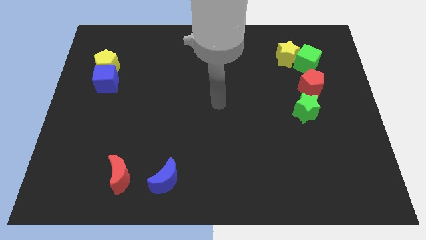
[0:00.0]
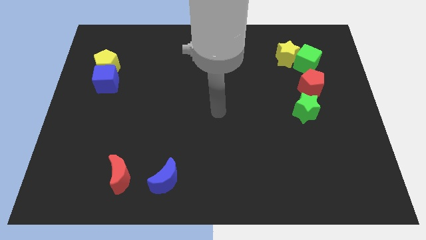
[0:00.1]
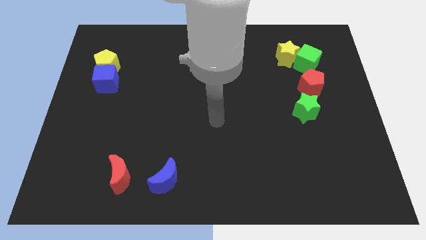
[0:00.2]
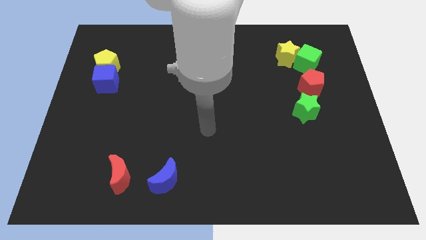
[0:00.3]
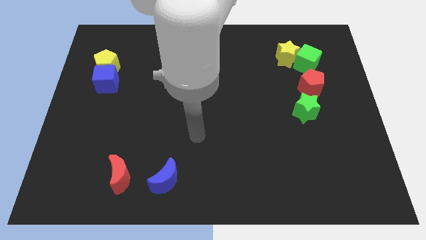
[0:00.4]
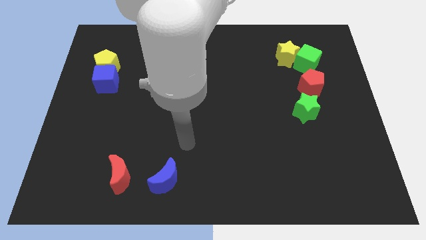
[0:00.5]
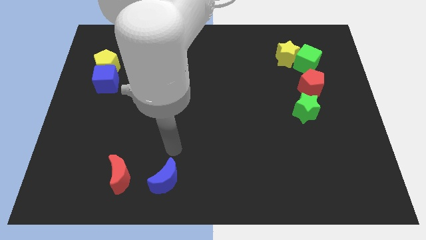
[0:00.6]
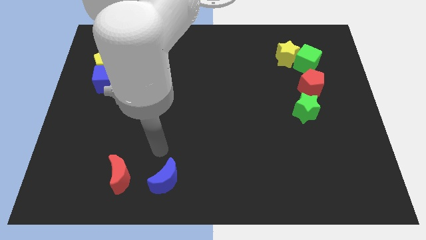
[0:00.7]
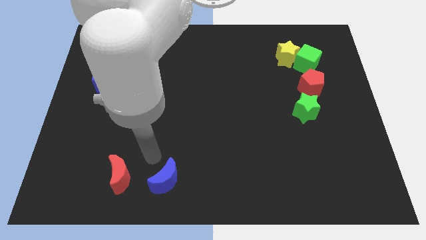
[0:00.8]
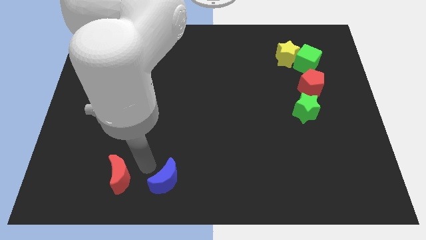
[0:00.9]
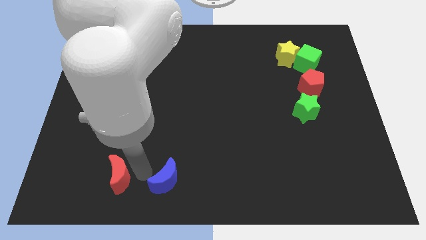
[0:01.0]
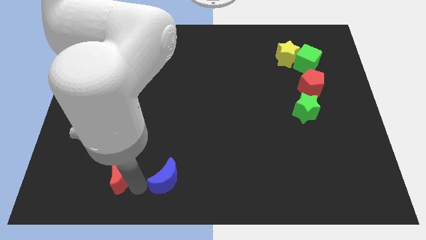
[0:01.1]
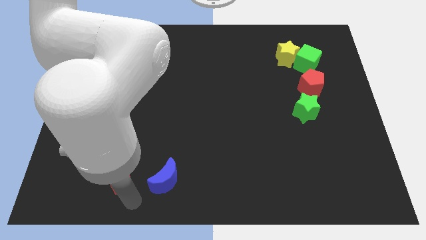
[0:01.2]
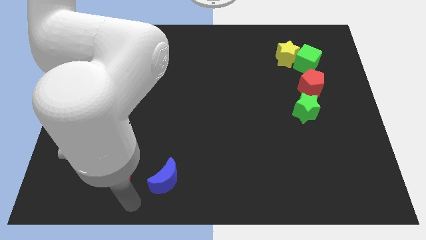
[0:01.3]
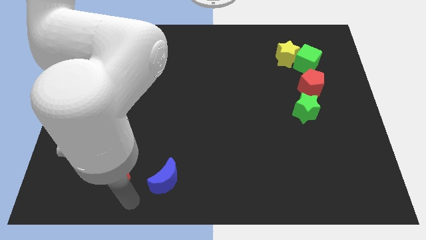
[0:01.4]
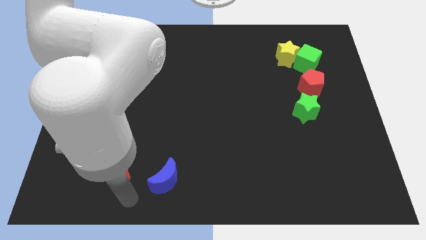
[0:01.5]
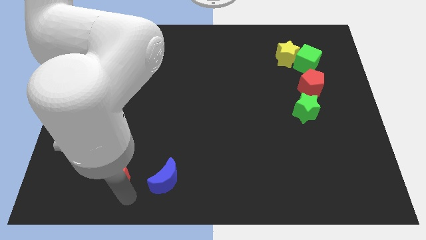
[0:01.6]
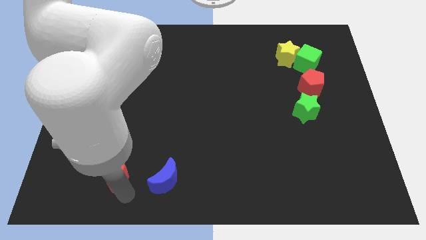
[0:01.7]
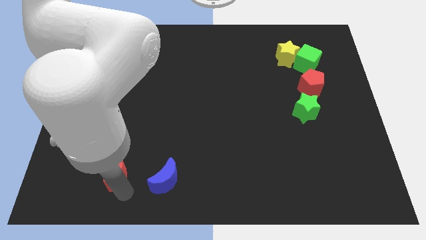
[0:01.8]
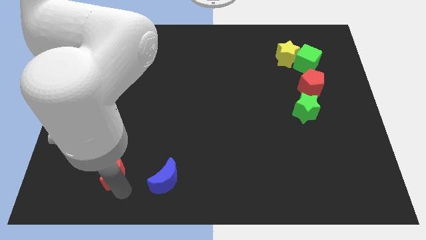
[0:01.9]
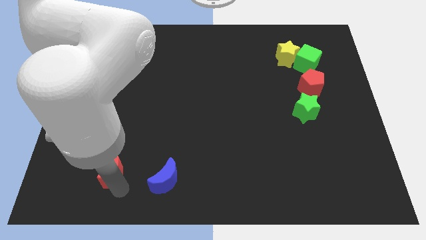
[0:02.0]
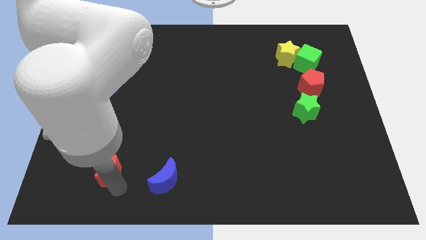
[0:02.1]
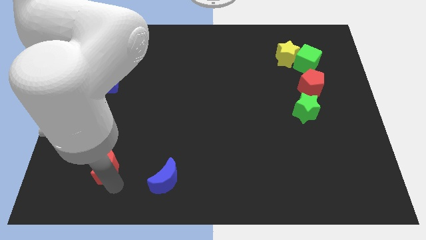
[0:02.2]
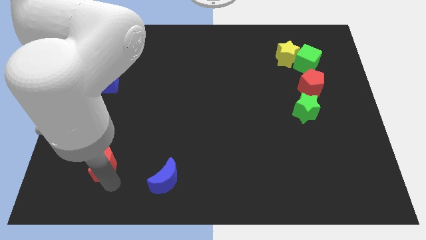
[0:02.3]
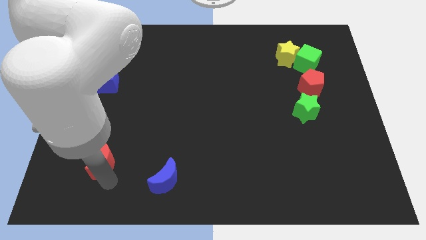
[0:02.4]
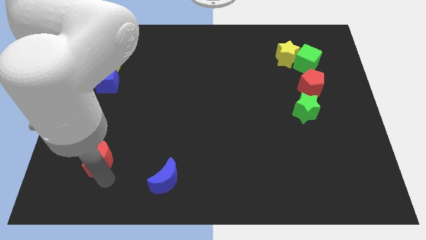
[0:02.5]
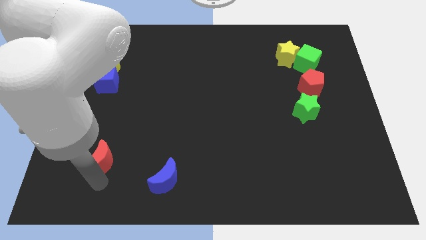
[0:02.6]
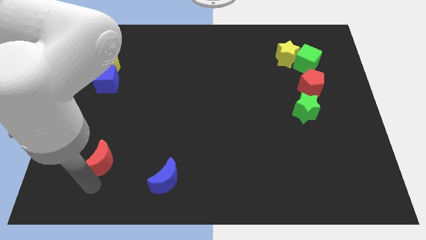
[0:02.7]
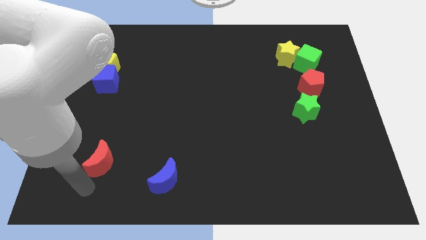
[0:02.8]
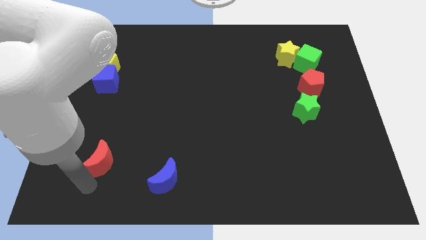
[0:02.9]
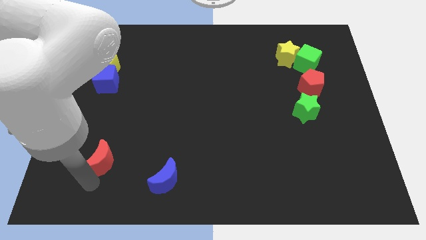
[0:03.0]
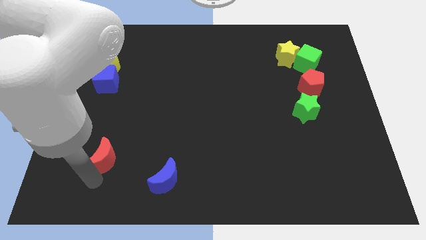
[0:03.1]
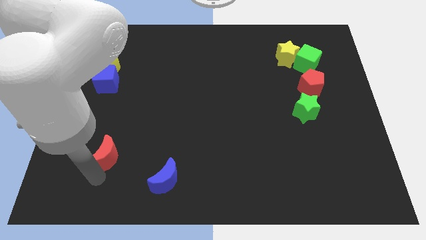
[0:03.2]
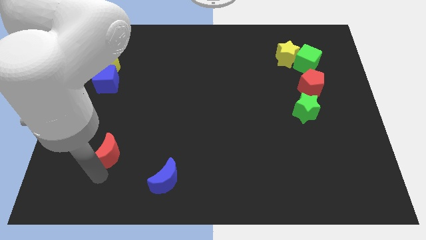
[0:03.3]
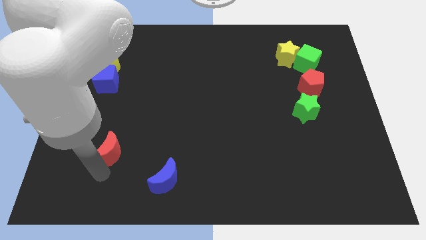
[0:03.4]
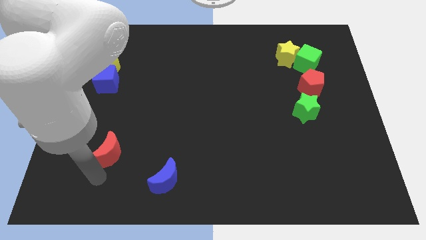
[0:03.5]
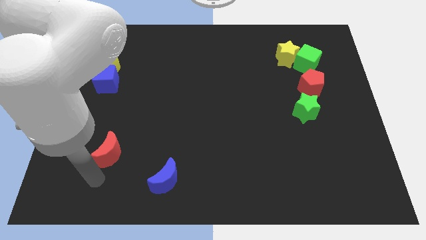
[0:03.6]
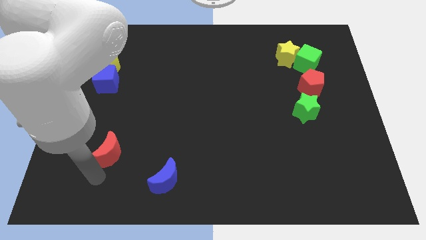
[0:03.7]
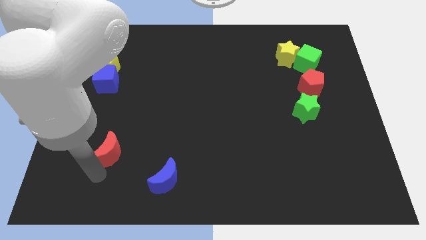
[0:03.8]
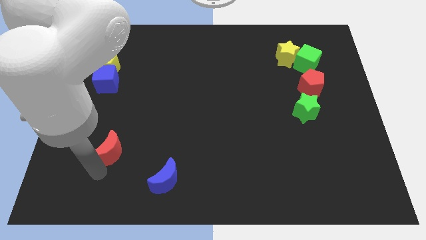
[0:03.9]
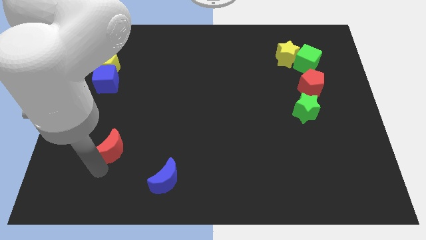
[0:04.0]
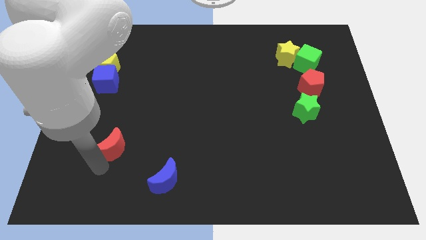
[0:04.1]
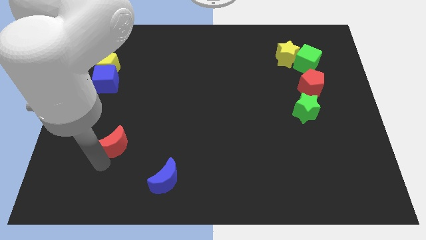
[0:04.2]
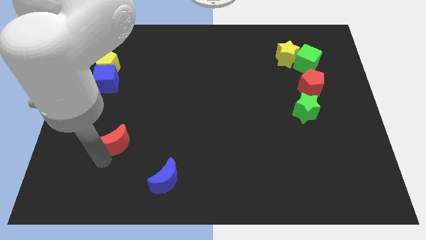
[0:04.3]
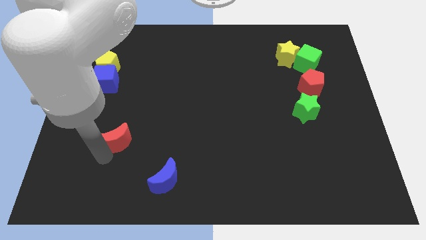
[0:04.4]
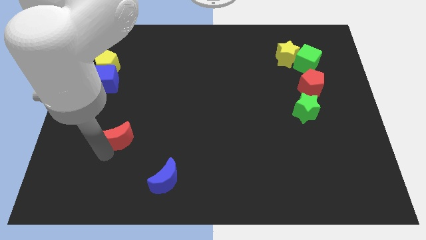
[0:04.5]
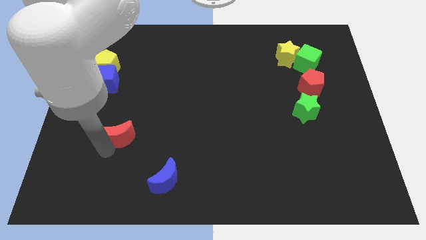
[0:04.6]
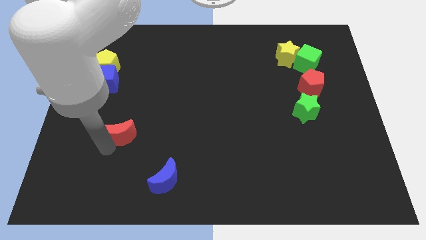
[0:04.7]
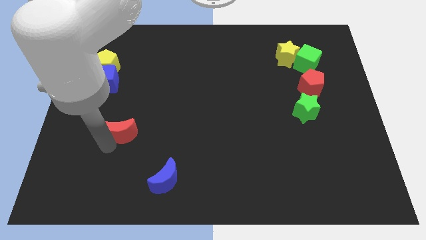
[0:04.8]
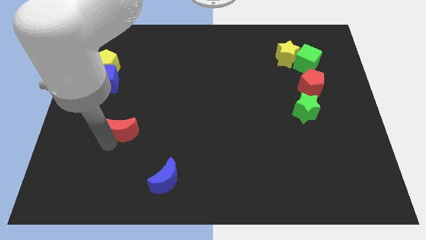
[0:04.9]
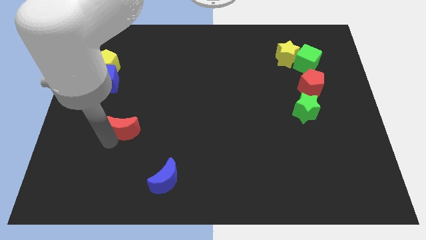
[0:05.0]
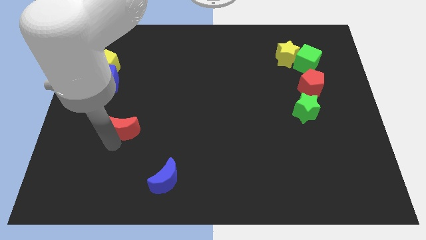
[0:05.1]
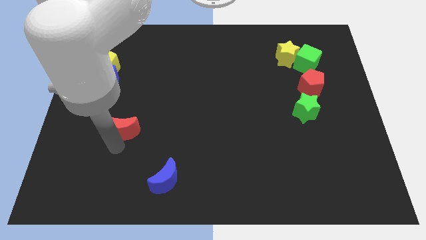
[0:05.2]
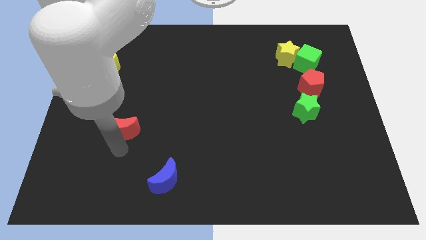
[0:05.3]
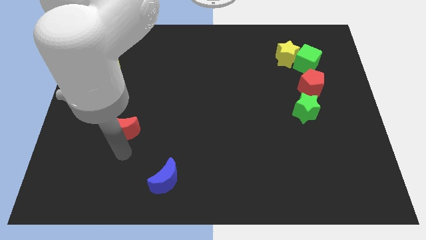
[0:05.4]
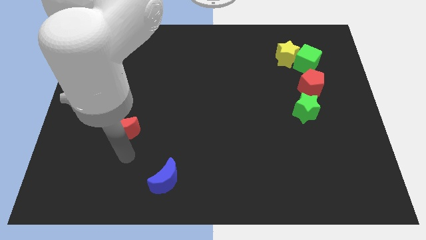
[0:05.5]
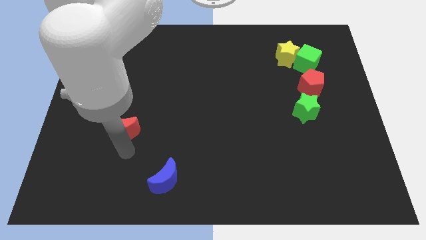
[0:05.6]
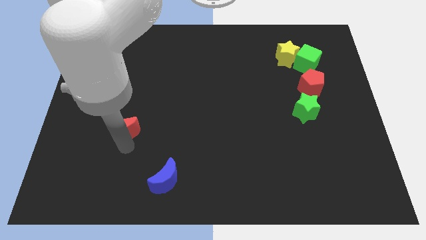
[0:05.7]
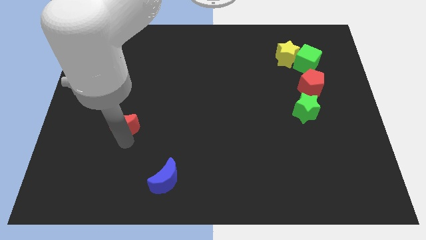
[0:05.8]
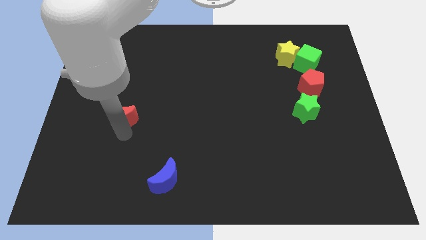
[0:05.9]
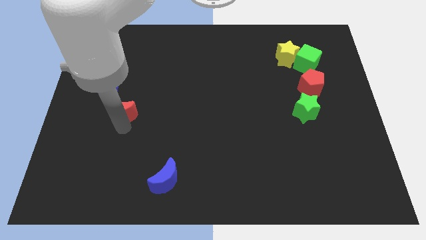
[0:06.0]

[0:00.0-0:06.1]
slide the red moon to the bottom right side of the blue cube
